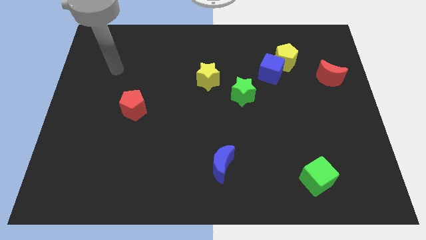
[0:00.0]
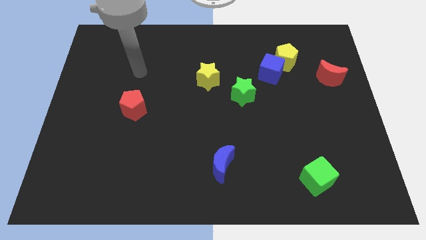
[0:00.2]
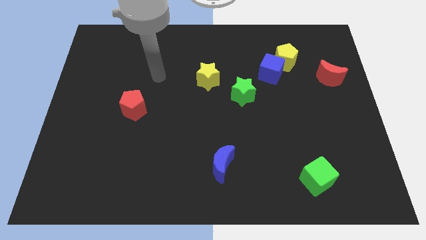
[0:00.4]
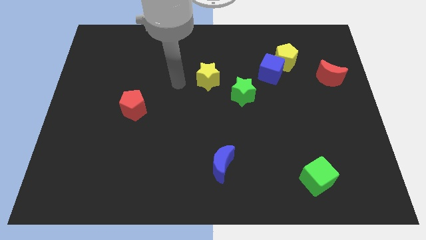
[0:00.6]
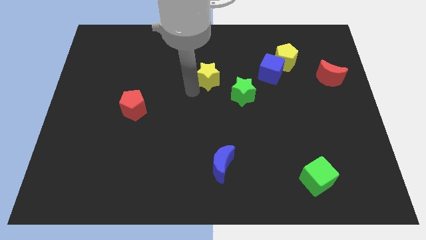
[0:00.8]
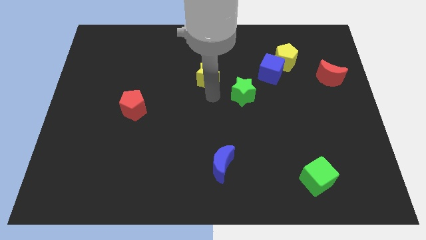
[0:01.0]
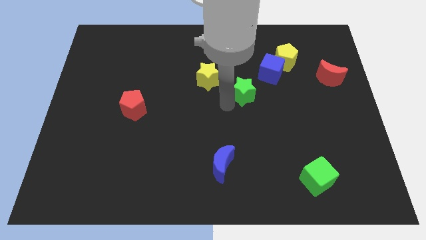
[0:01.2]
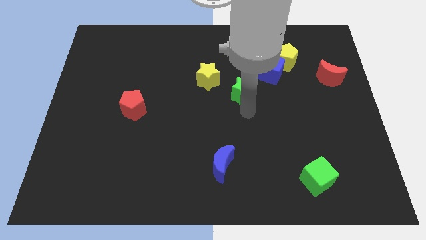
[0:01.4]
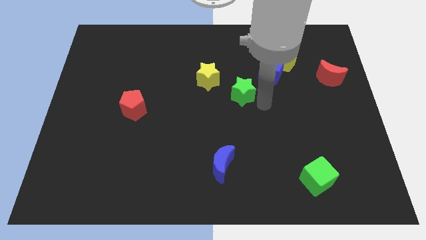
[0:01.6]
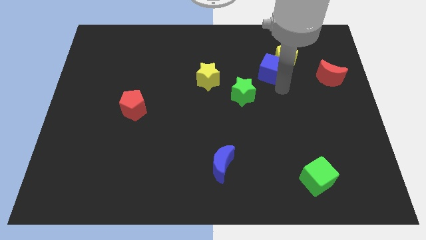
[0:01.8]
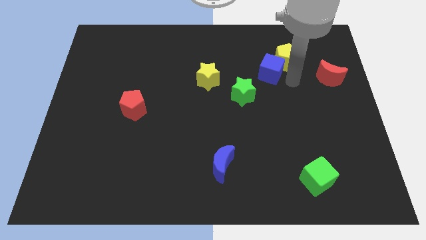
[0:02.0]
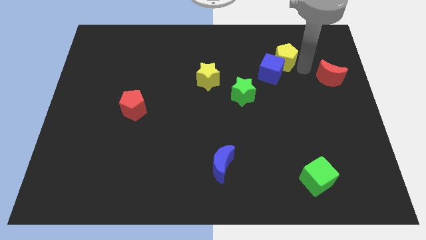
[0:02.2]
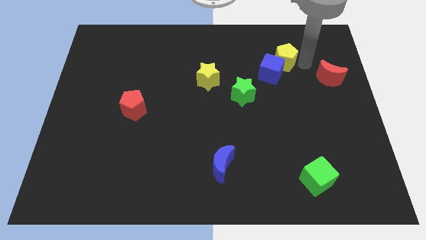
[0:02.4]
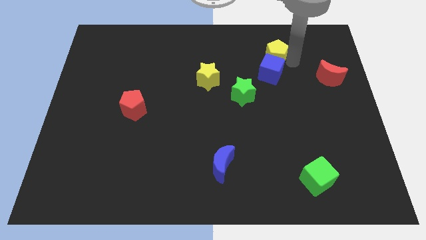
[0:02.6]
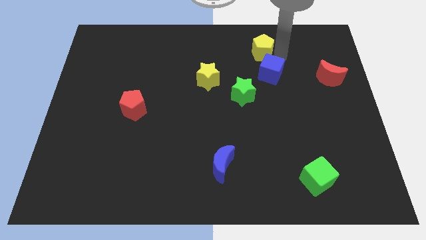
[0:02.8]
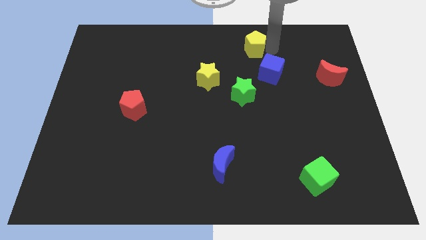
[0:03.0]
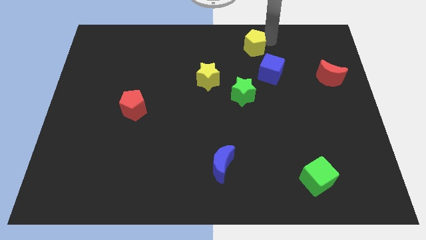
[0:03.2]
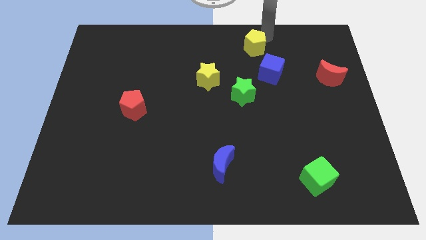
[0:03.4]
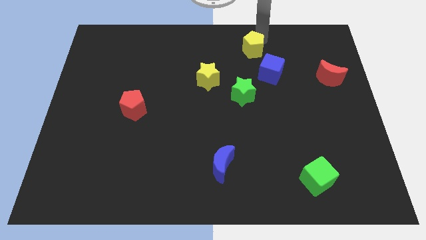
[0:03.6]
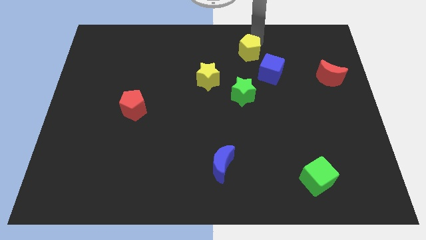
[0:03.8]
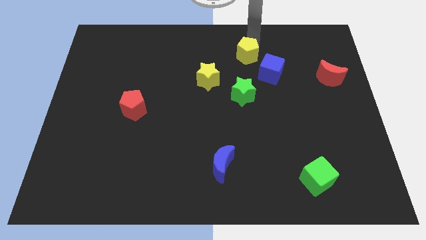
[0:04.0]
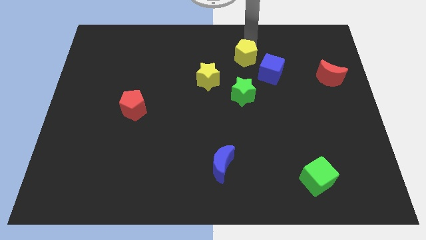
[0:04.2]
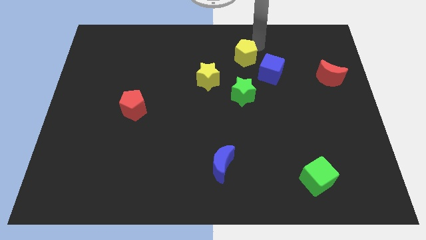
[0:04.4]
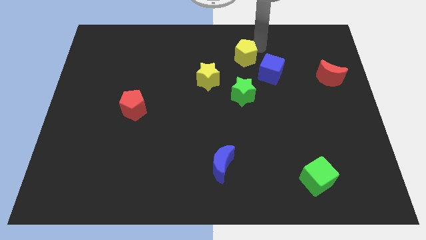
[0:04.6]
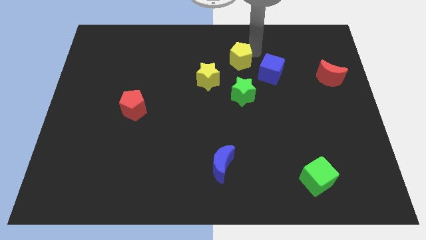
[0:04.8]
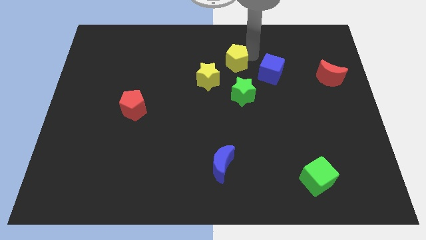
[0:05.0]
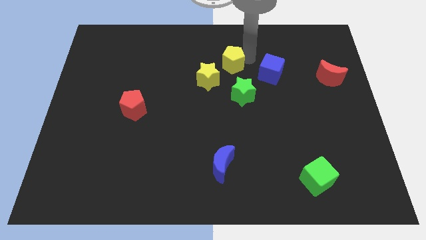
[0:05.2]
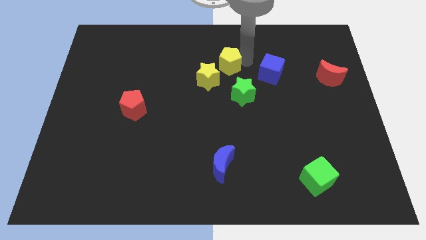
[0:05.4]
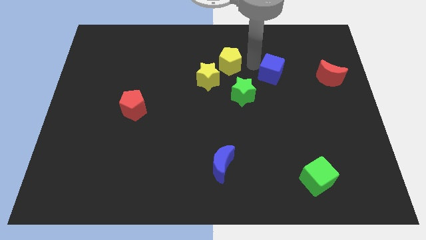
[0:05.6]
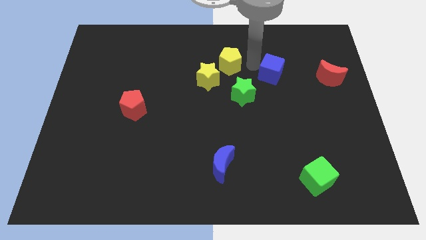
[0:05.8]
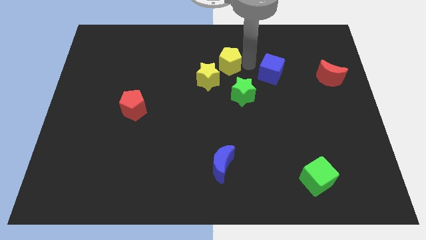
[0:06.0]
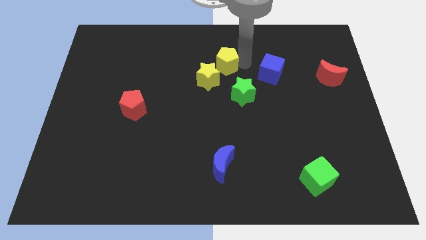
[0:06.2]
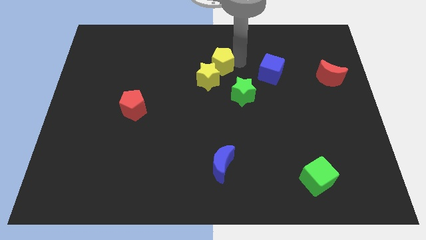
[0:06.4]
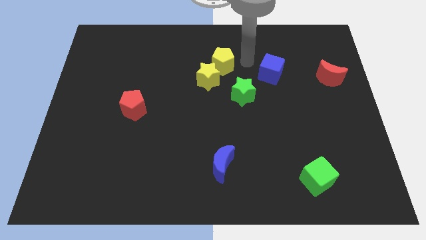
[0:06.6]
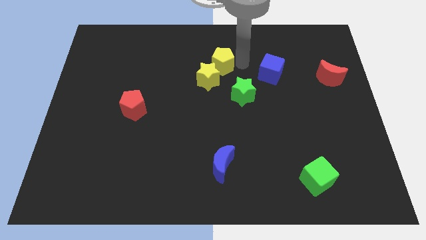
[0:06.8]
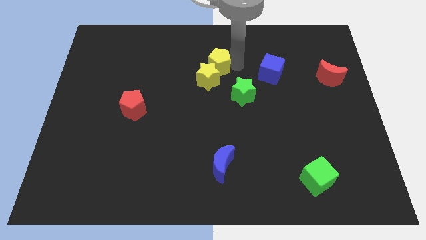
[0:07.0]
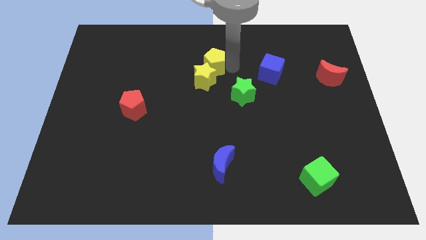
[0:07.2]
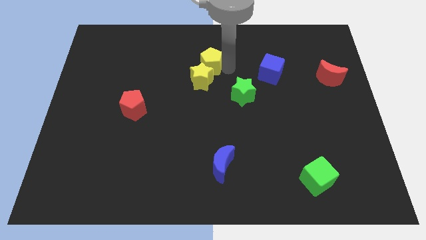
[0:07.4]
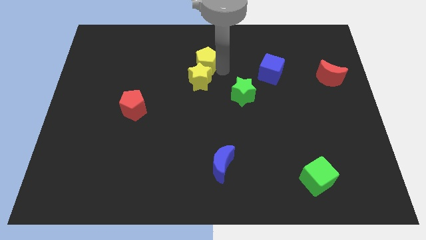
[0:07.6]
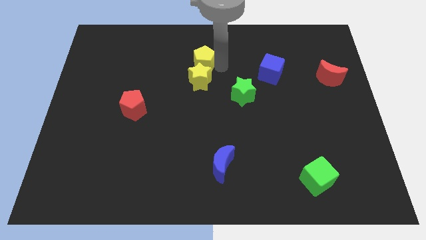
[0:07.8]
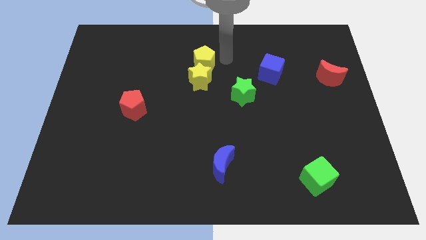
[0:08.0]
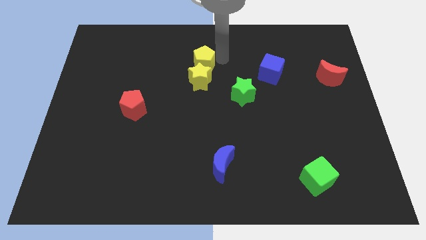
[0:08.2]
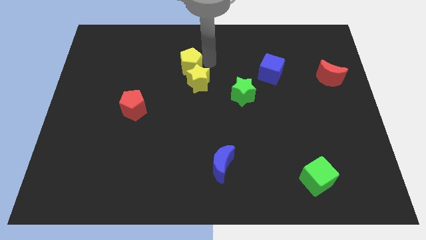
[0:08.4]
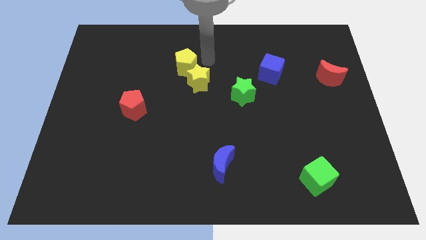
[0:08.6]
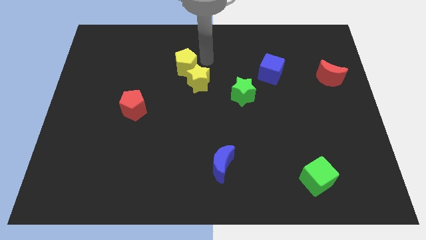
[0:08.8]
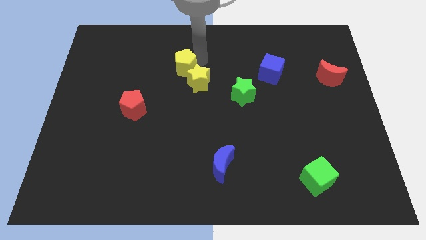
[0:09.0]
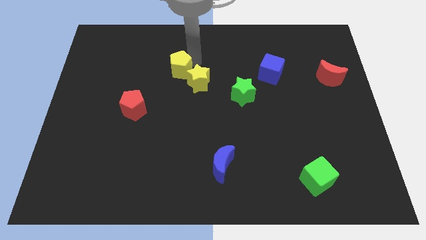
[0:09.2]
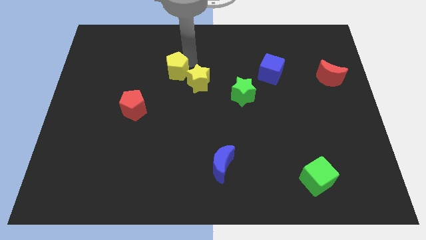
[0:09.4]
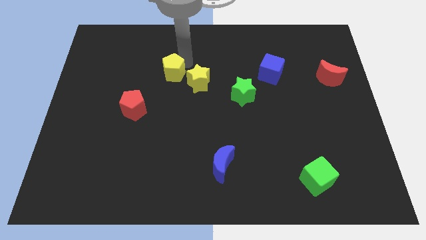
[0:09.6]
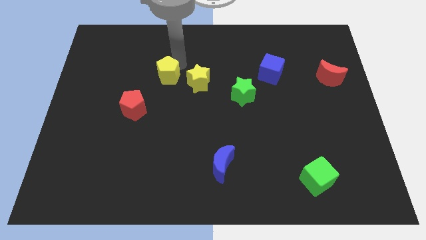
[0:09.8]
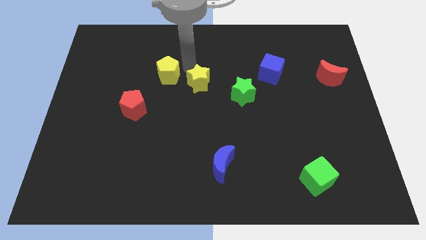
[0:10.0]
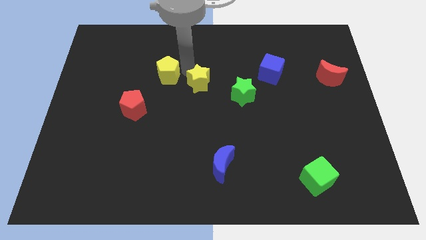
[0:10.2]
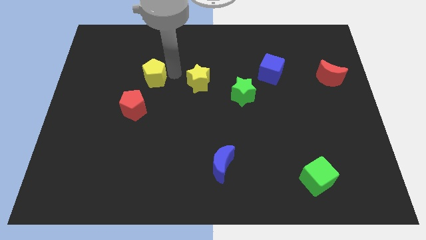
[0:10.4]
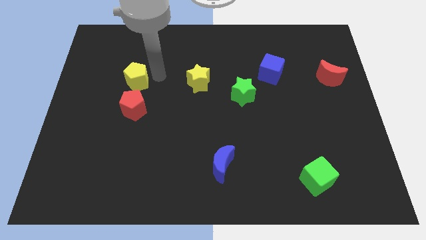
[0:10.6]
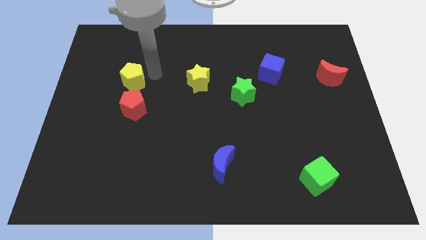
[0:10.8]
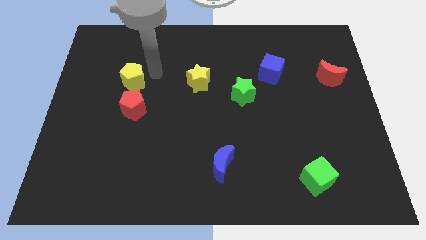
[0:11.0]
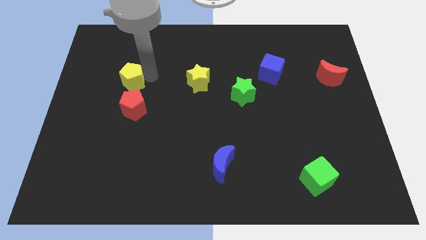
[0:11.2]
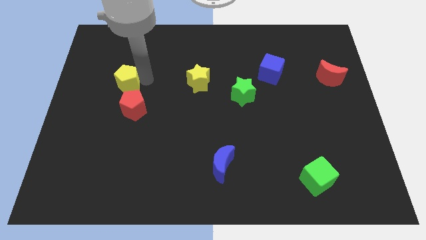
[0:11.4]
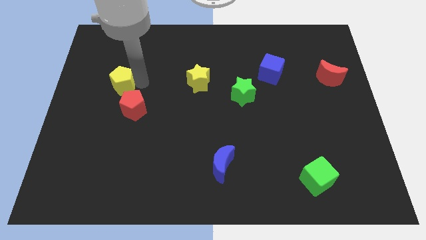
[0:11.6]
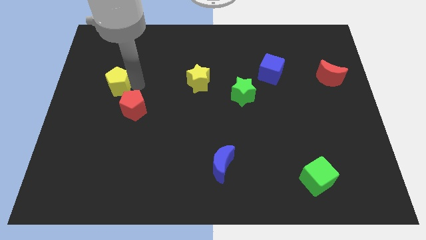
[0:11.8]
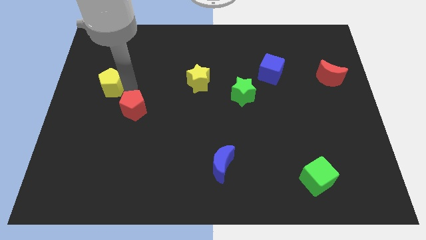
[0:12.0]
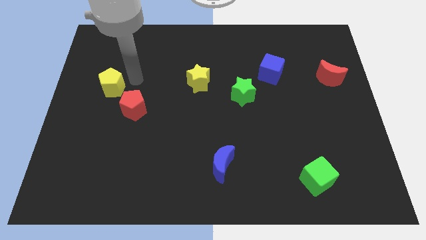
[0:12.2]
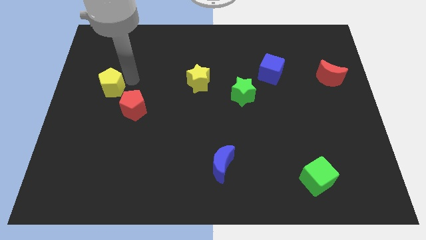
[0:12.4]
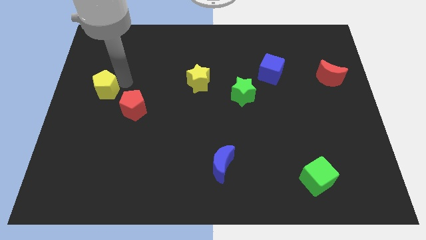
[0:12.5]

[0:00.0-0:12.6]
move the yellow pentagon to the left side of the board
